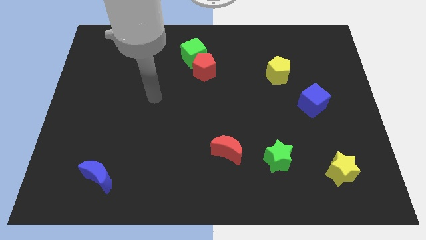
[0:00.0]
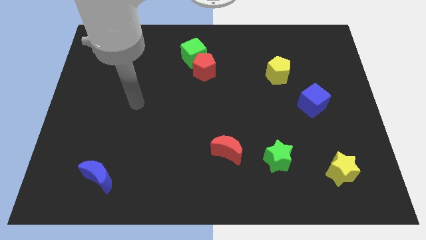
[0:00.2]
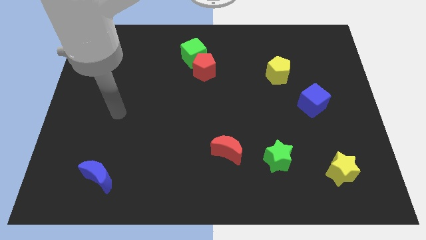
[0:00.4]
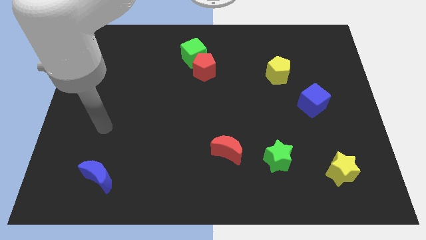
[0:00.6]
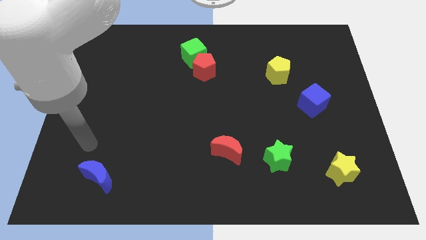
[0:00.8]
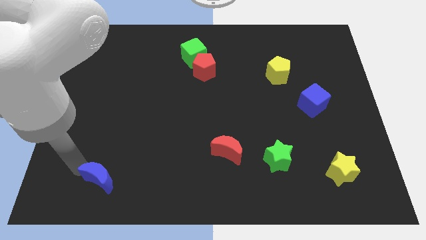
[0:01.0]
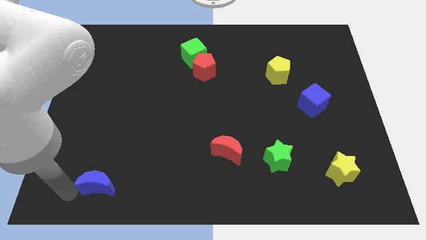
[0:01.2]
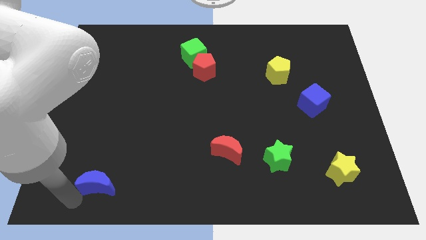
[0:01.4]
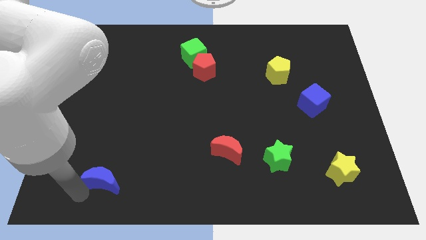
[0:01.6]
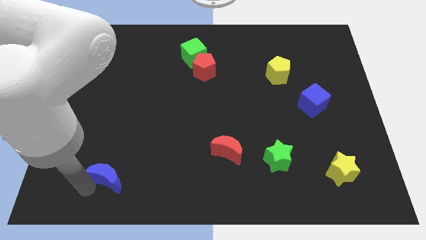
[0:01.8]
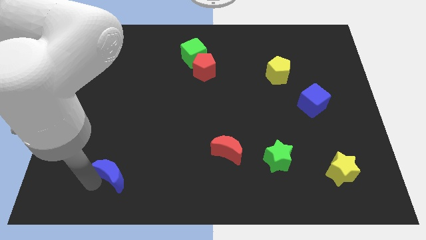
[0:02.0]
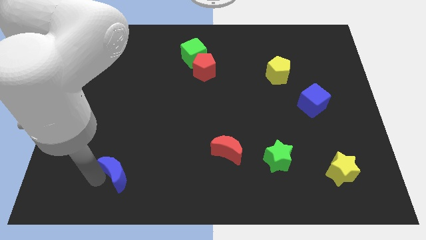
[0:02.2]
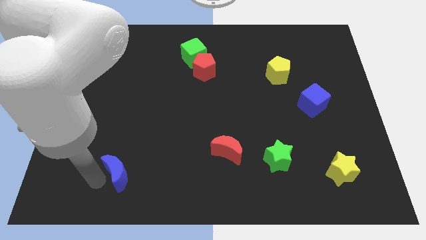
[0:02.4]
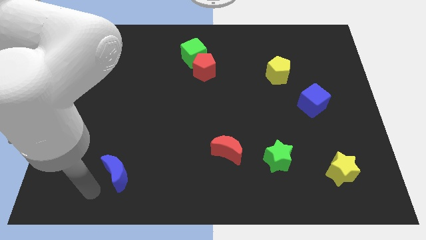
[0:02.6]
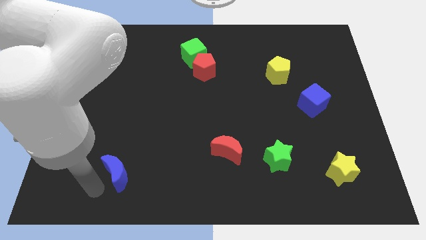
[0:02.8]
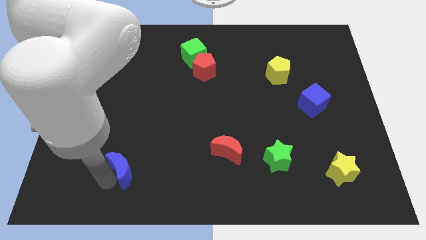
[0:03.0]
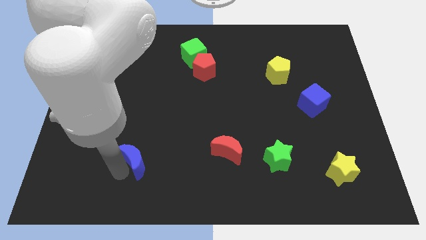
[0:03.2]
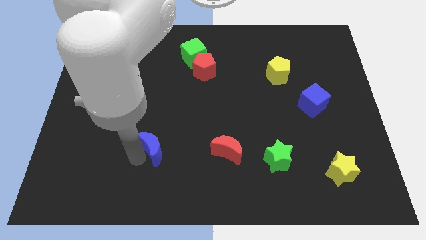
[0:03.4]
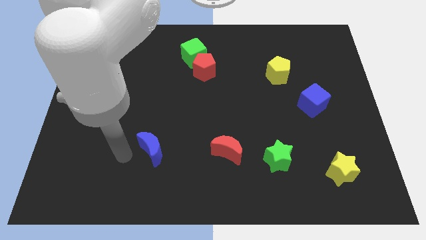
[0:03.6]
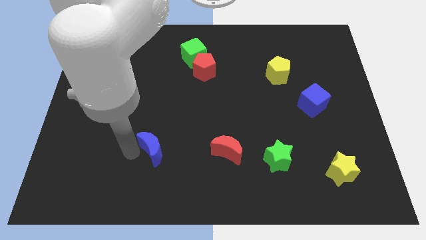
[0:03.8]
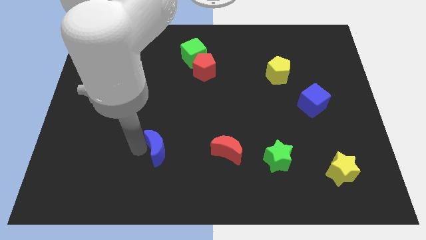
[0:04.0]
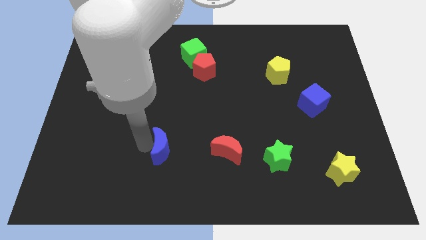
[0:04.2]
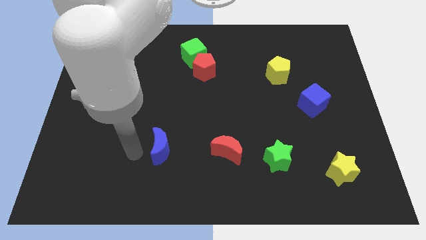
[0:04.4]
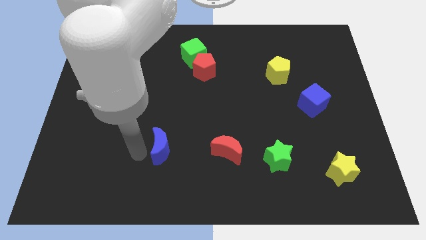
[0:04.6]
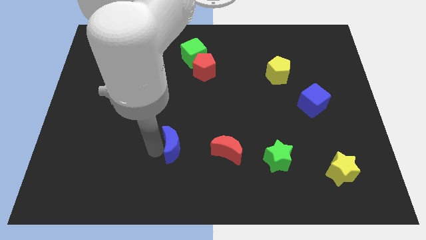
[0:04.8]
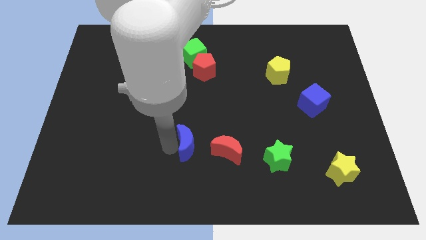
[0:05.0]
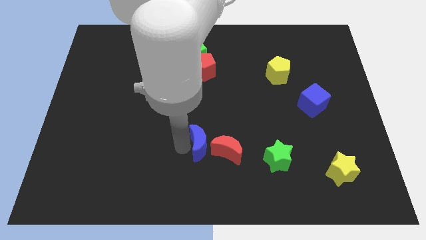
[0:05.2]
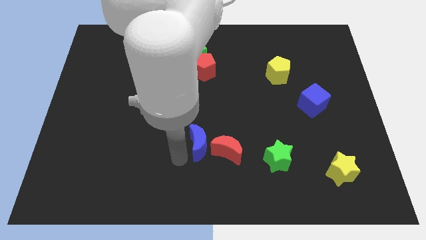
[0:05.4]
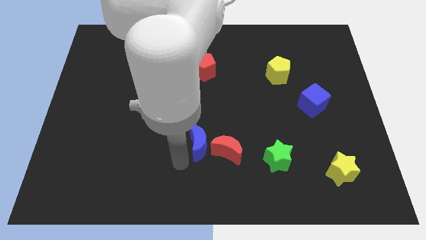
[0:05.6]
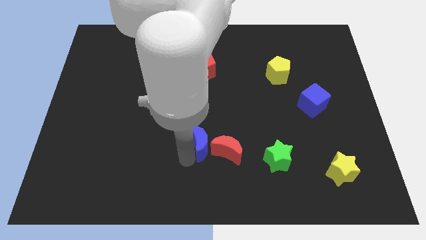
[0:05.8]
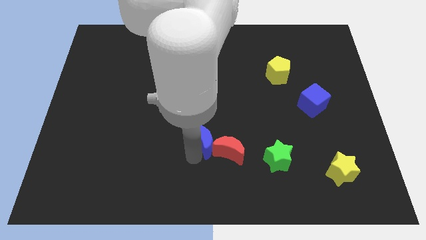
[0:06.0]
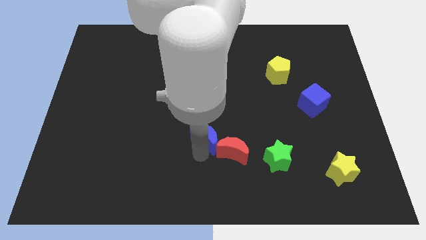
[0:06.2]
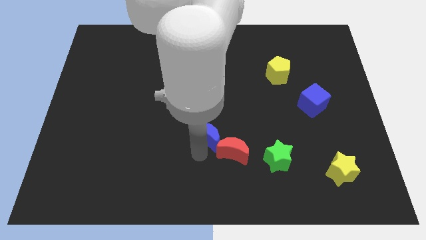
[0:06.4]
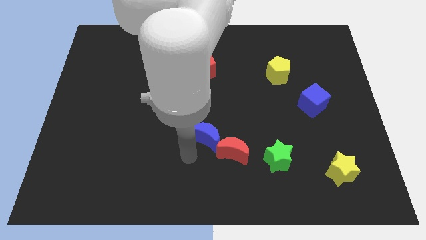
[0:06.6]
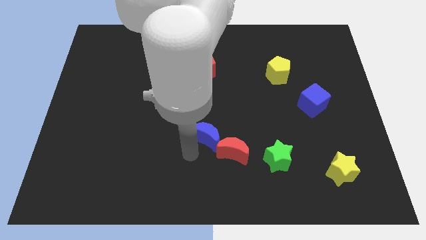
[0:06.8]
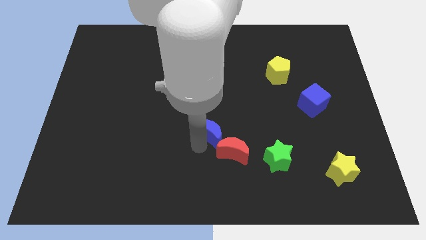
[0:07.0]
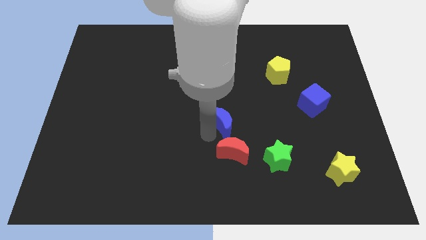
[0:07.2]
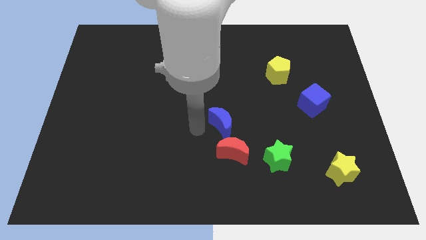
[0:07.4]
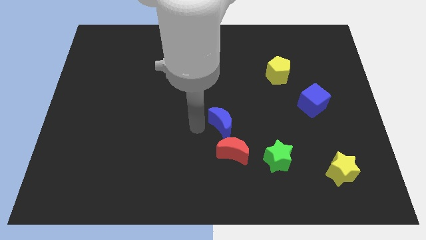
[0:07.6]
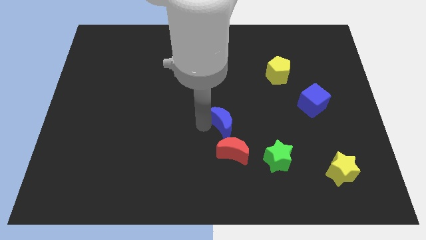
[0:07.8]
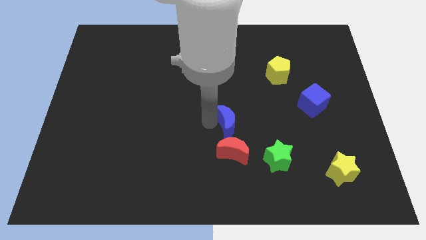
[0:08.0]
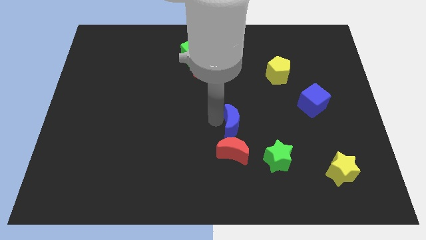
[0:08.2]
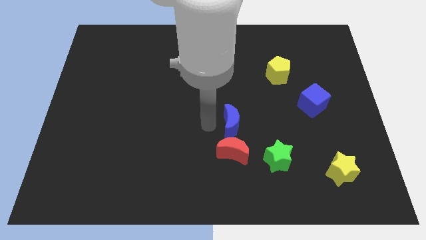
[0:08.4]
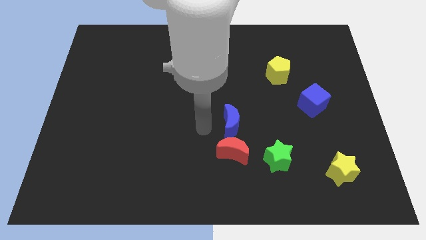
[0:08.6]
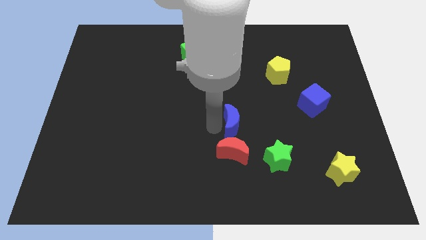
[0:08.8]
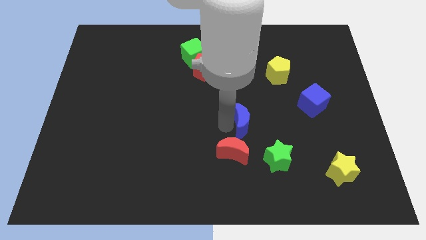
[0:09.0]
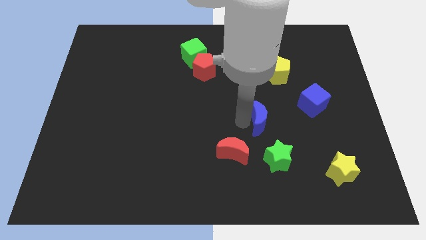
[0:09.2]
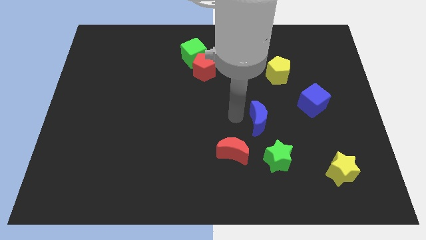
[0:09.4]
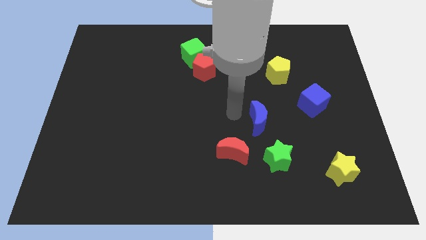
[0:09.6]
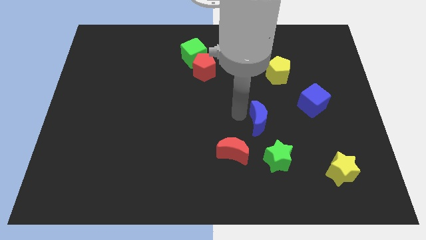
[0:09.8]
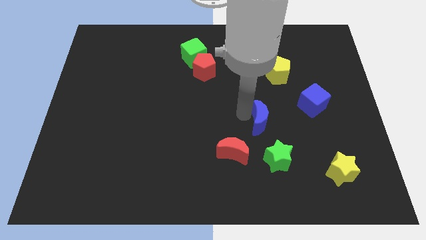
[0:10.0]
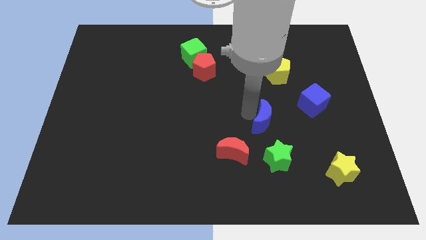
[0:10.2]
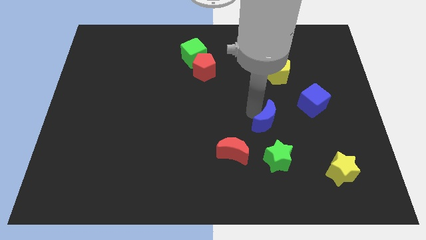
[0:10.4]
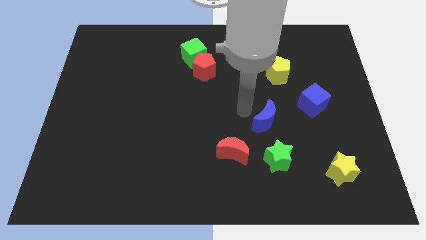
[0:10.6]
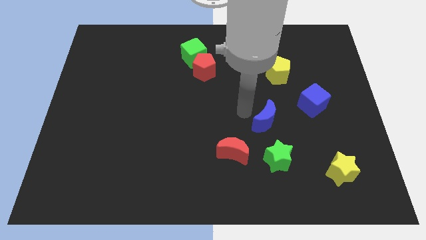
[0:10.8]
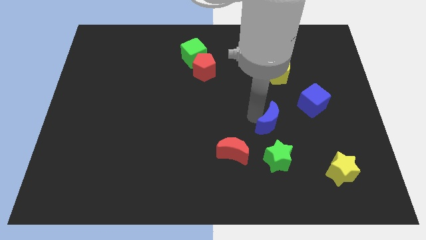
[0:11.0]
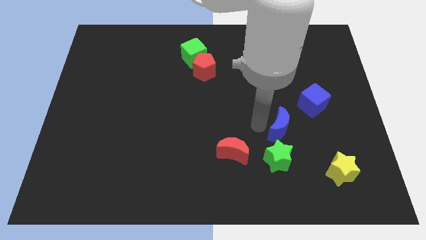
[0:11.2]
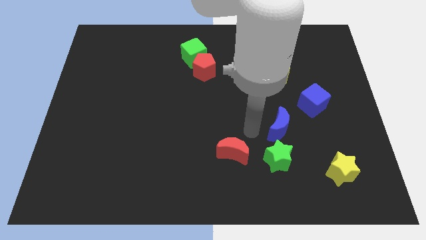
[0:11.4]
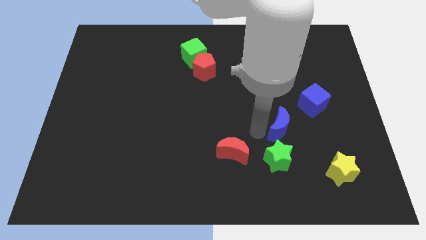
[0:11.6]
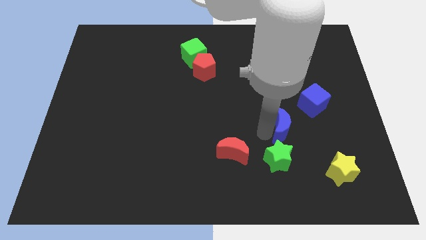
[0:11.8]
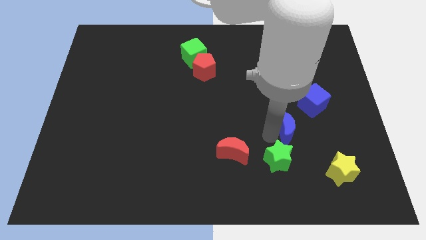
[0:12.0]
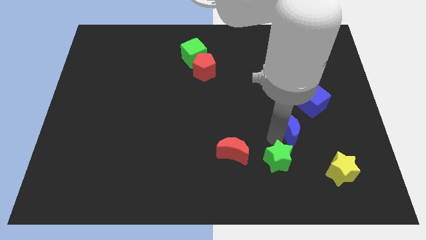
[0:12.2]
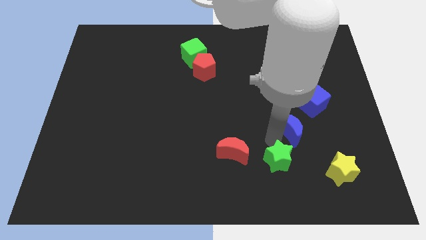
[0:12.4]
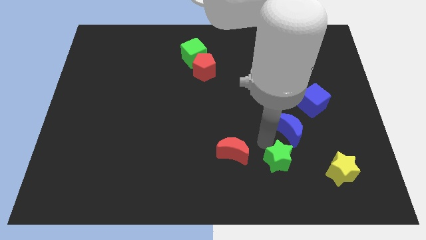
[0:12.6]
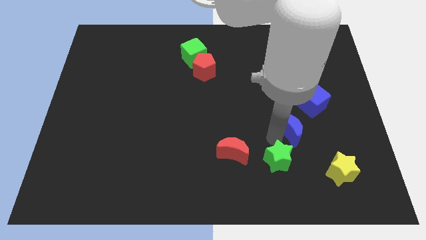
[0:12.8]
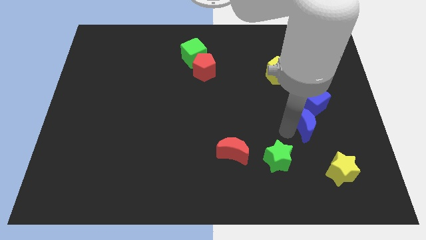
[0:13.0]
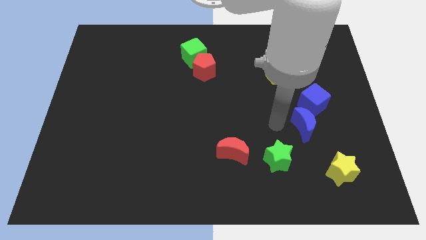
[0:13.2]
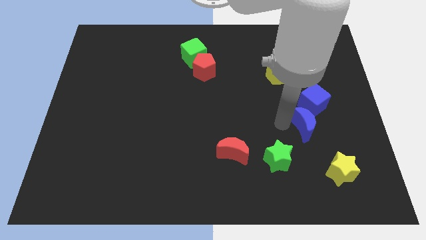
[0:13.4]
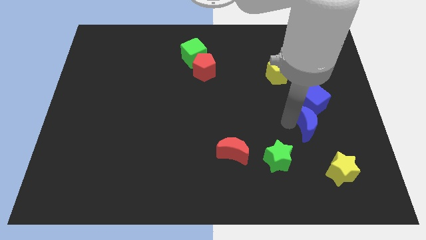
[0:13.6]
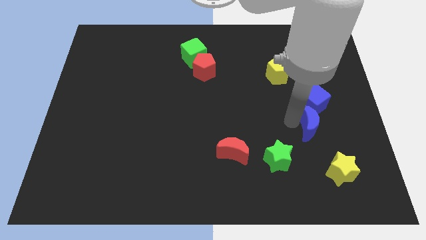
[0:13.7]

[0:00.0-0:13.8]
move the blue moon above the yellow star

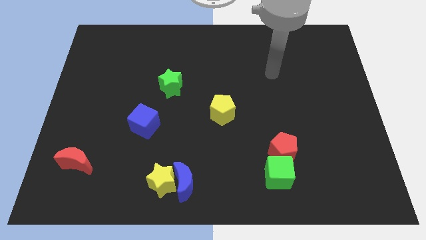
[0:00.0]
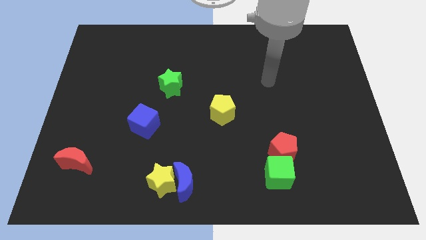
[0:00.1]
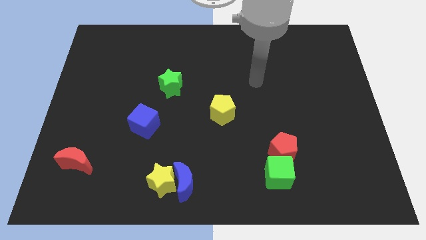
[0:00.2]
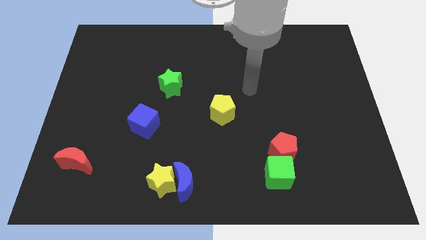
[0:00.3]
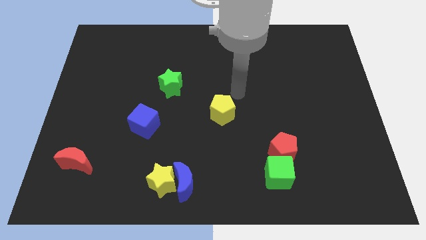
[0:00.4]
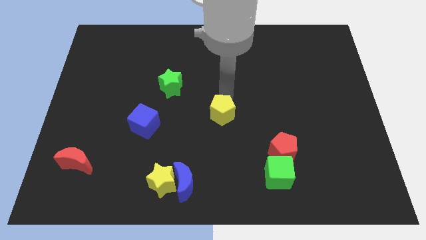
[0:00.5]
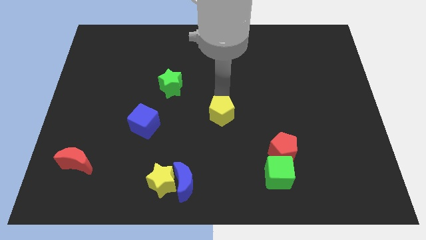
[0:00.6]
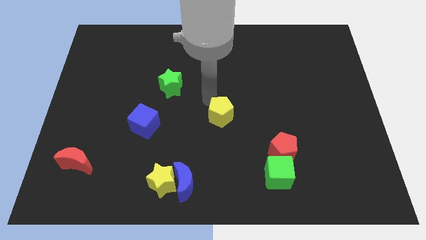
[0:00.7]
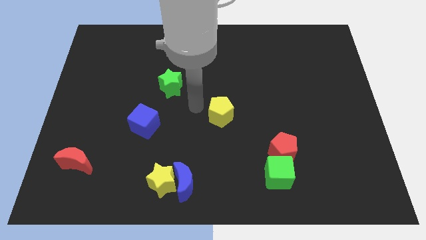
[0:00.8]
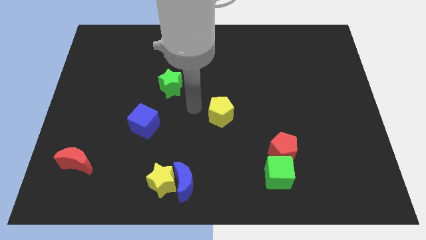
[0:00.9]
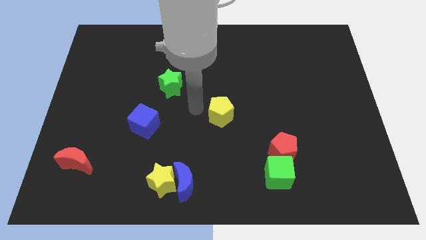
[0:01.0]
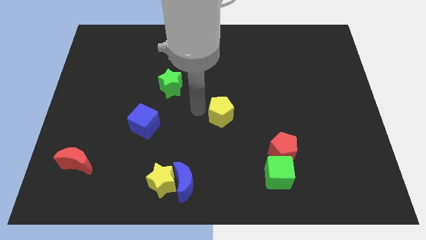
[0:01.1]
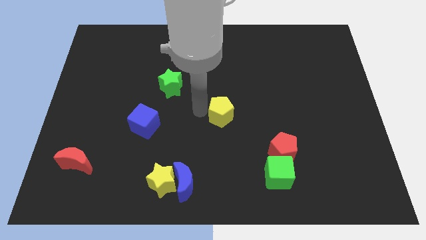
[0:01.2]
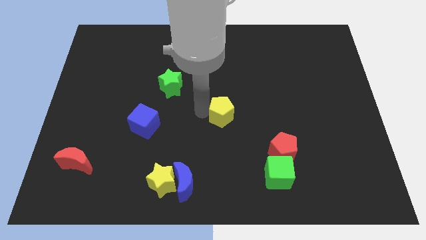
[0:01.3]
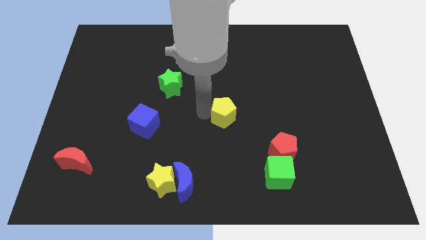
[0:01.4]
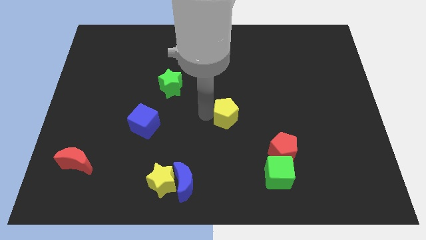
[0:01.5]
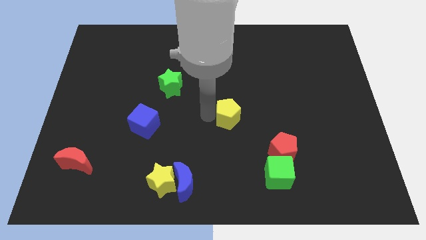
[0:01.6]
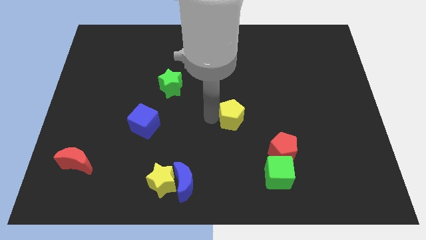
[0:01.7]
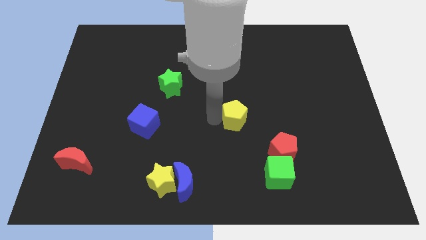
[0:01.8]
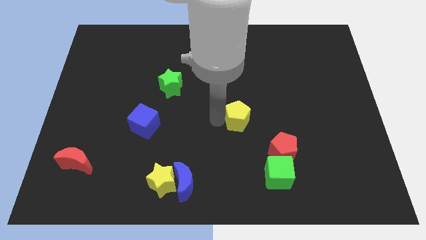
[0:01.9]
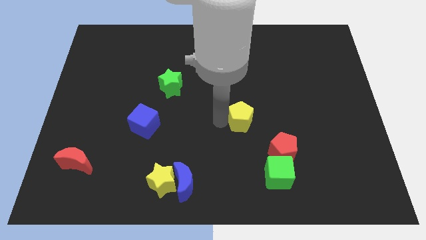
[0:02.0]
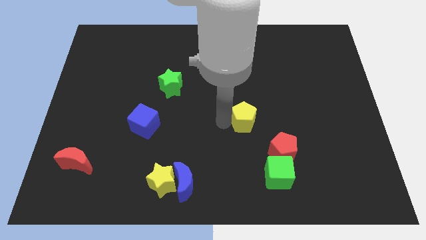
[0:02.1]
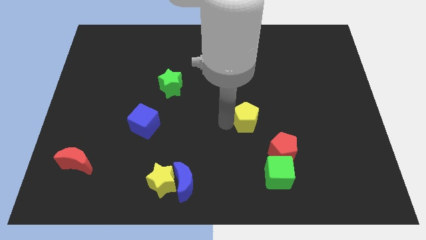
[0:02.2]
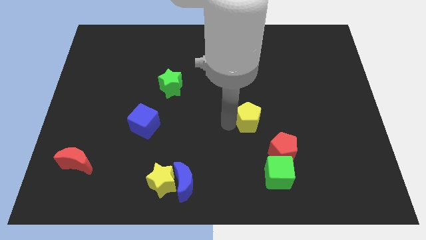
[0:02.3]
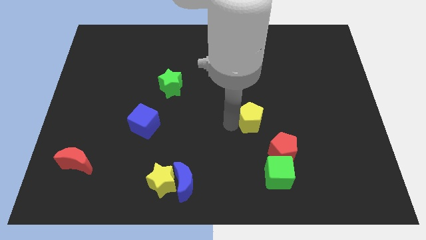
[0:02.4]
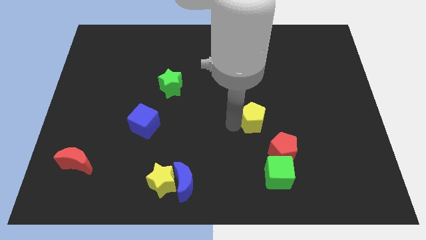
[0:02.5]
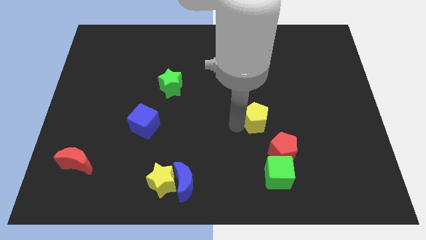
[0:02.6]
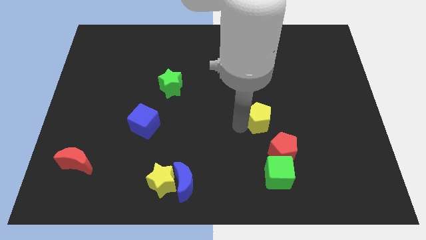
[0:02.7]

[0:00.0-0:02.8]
slide the yellow pentagon to the top of the red pentagon
